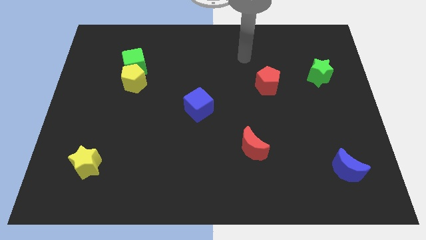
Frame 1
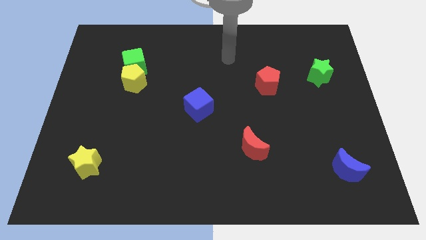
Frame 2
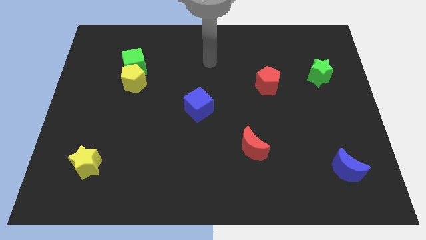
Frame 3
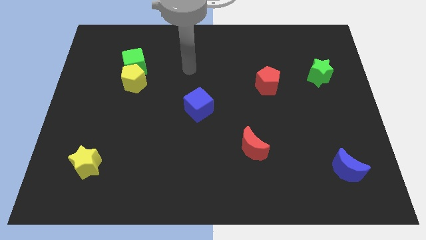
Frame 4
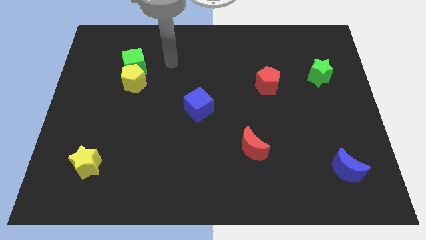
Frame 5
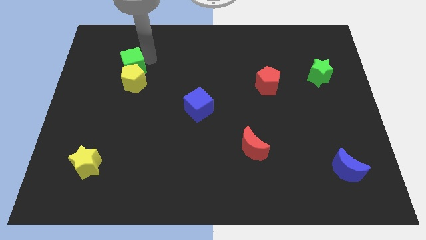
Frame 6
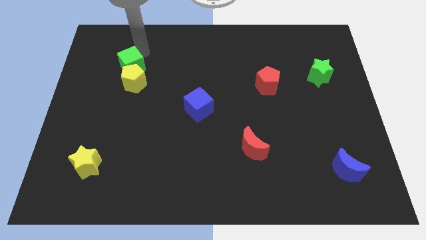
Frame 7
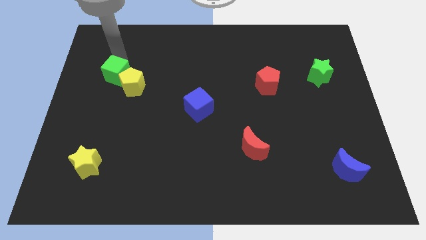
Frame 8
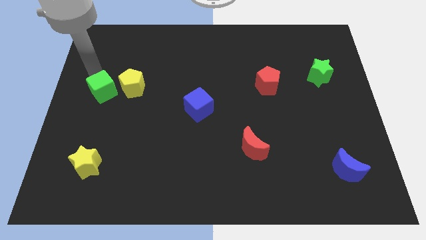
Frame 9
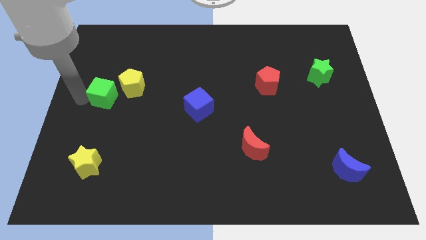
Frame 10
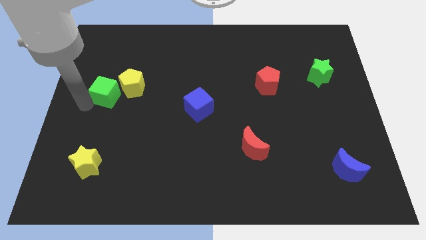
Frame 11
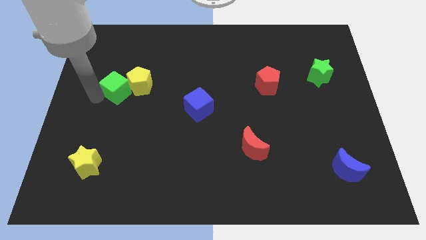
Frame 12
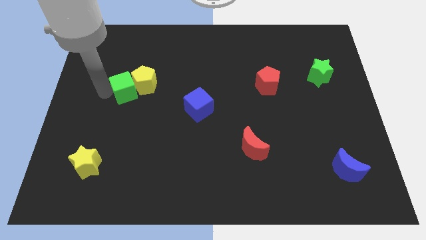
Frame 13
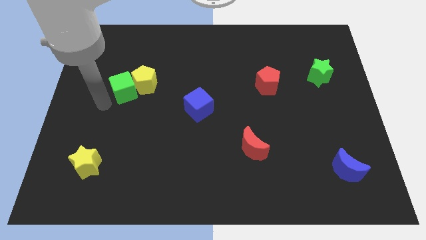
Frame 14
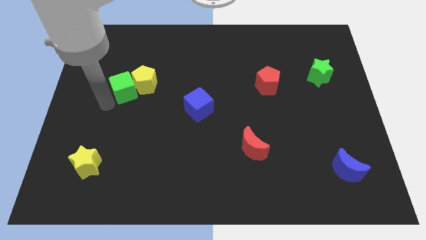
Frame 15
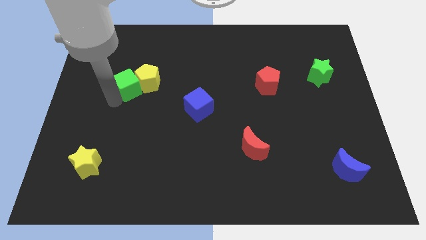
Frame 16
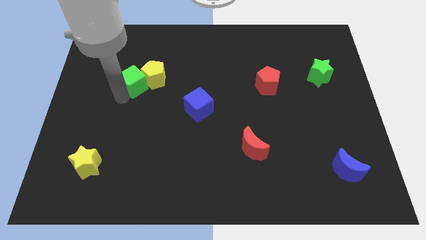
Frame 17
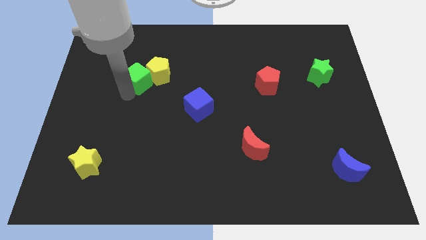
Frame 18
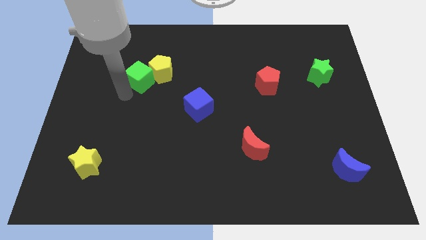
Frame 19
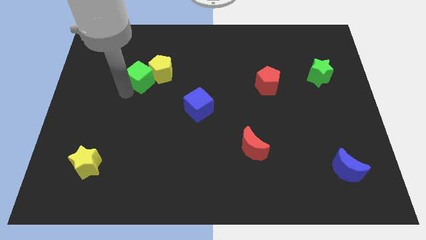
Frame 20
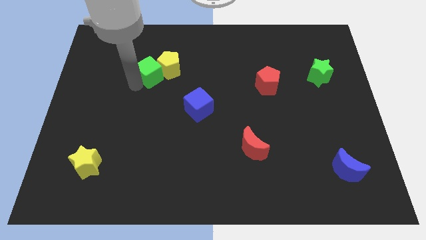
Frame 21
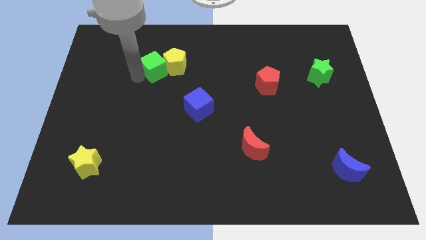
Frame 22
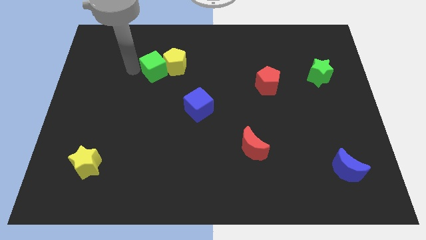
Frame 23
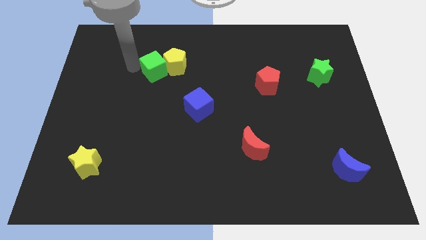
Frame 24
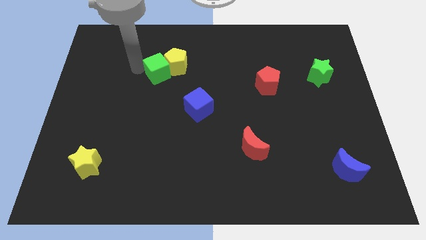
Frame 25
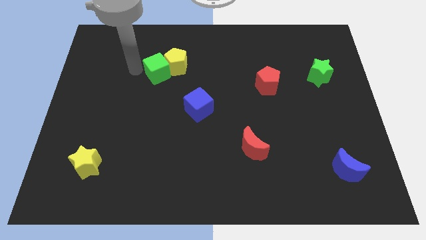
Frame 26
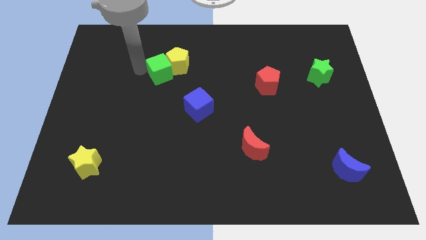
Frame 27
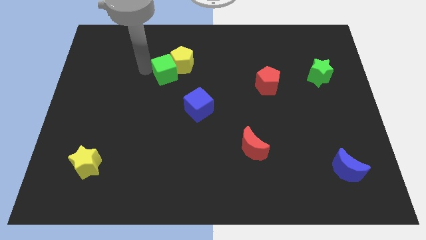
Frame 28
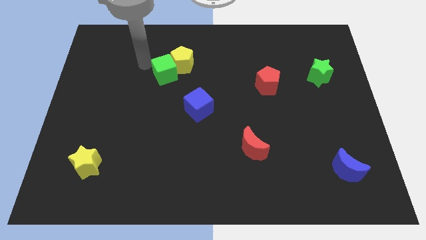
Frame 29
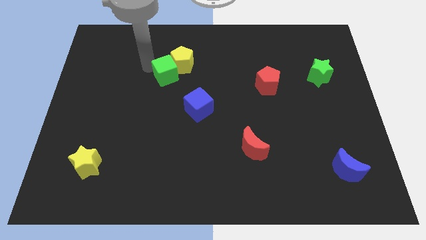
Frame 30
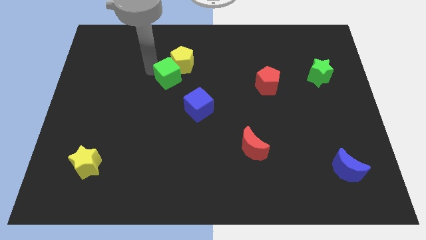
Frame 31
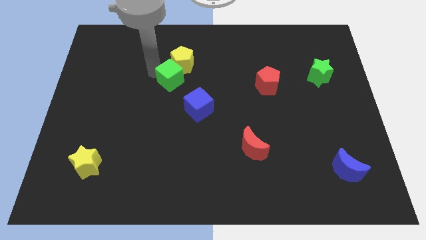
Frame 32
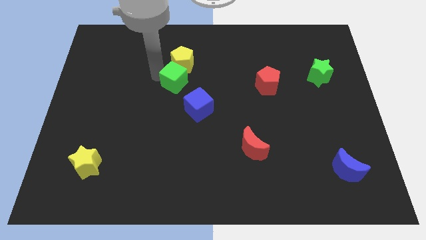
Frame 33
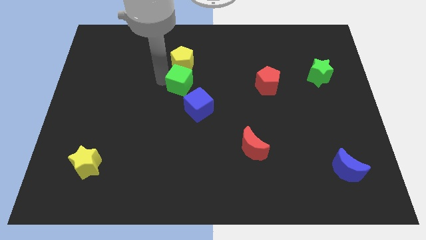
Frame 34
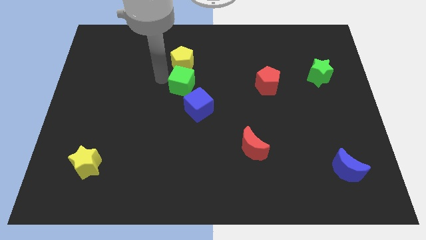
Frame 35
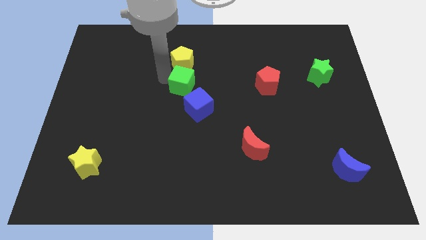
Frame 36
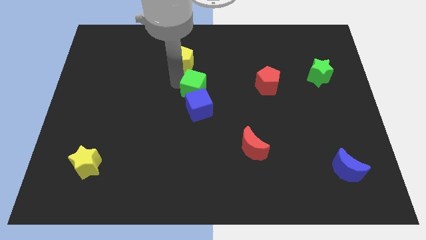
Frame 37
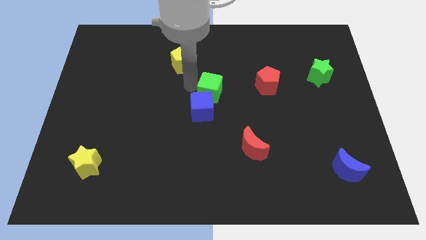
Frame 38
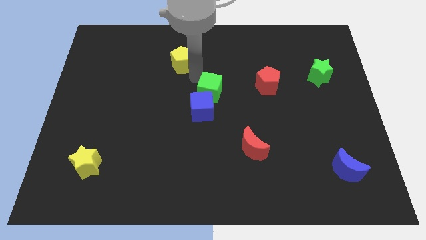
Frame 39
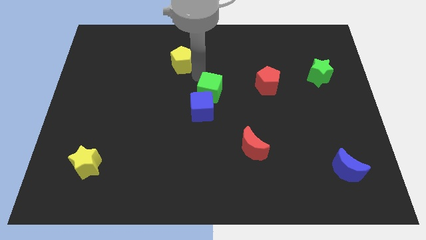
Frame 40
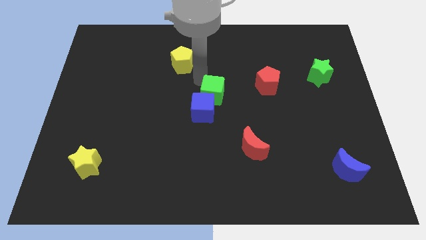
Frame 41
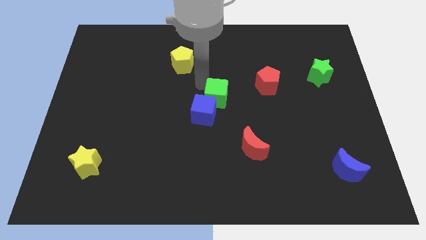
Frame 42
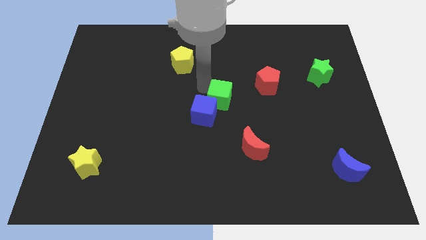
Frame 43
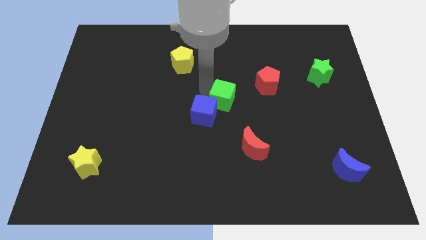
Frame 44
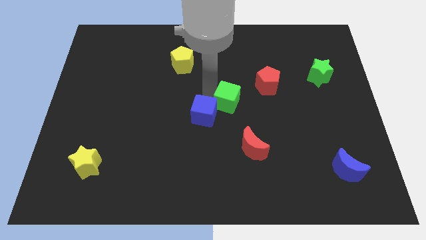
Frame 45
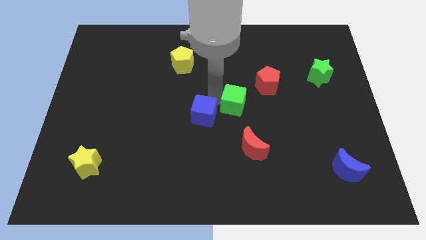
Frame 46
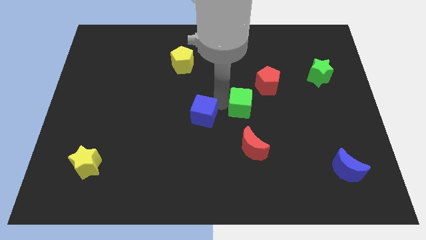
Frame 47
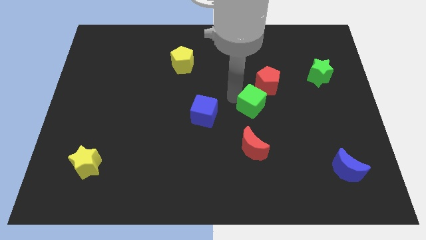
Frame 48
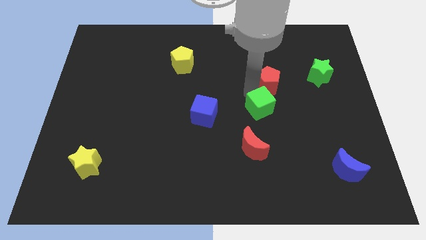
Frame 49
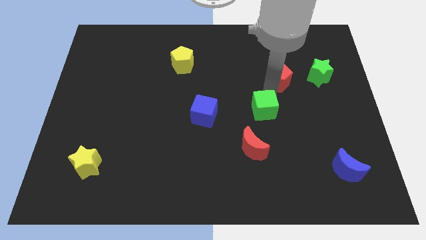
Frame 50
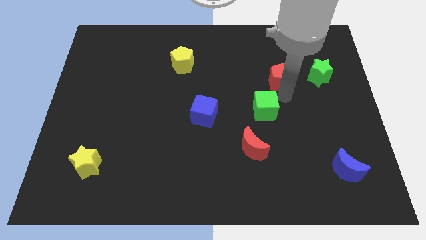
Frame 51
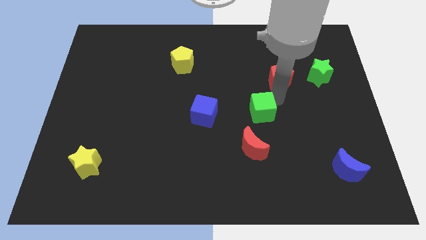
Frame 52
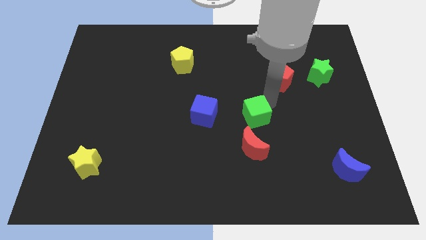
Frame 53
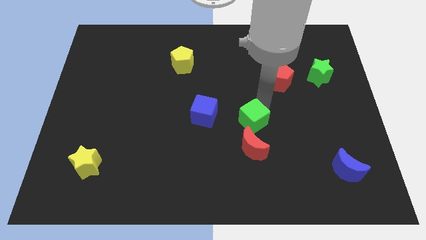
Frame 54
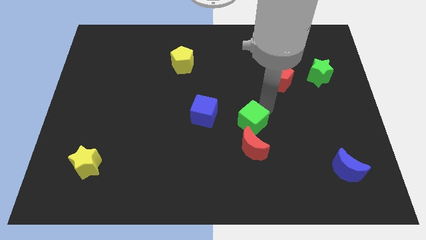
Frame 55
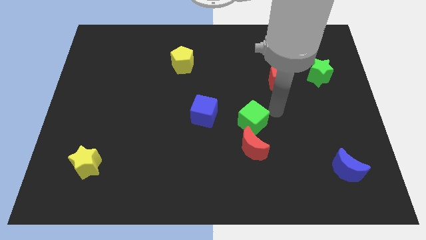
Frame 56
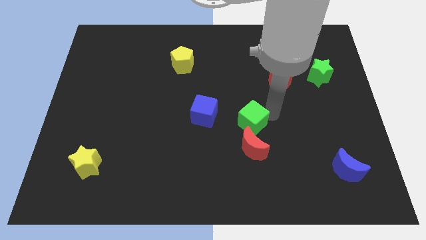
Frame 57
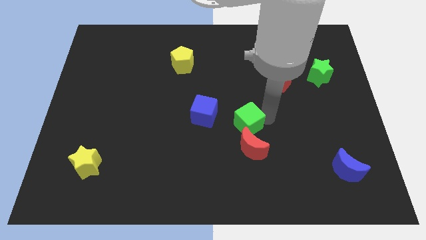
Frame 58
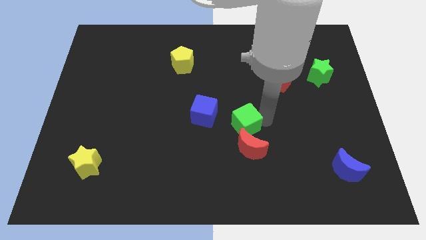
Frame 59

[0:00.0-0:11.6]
push the green cube to the bottom right of the blue cube
